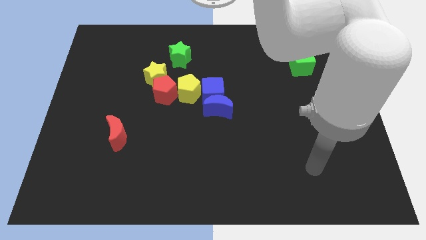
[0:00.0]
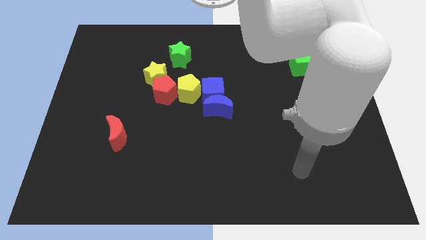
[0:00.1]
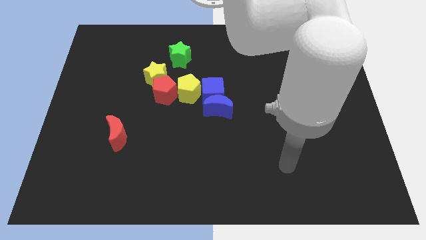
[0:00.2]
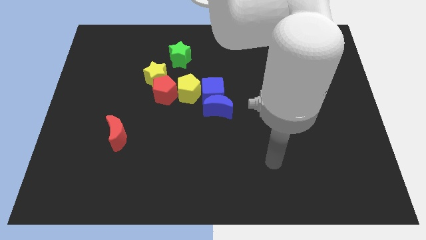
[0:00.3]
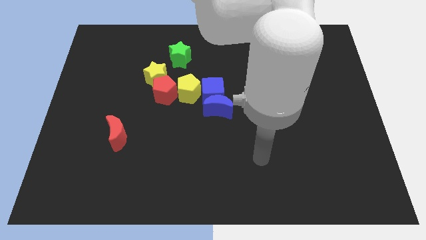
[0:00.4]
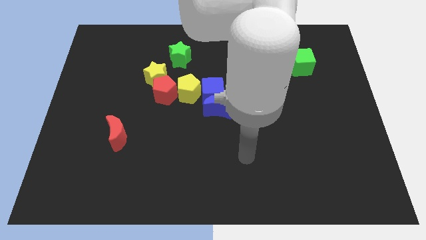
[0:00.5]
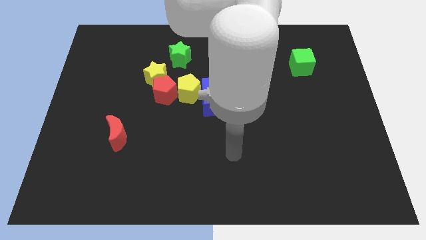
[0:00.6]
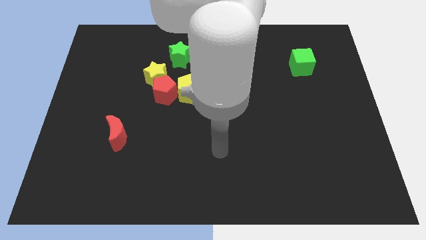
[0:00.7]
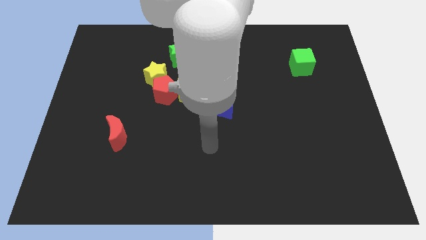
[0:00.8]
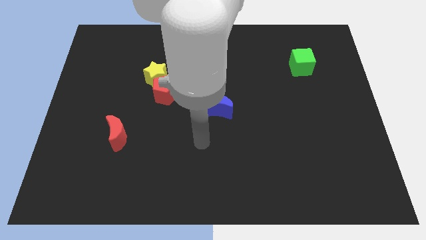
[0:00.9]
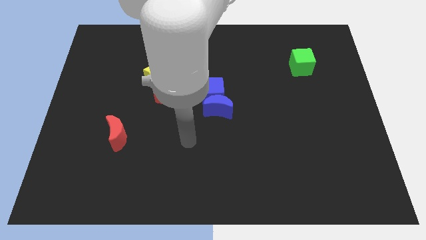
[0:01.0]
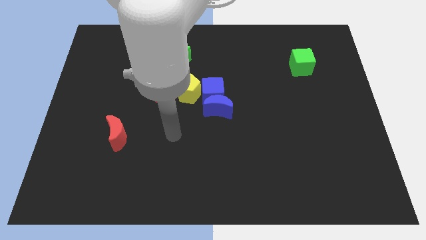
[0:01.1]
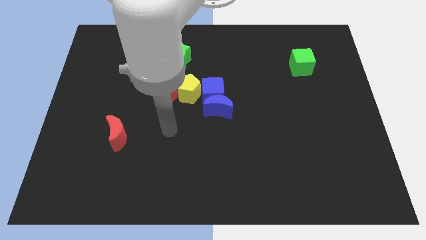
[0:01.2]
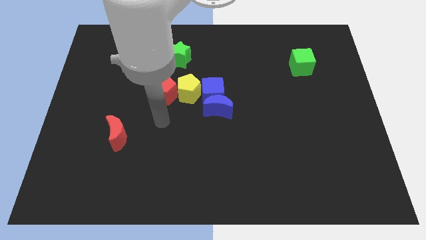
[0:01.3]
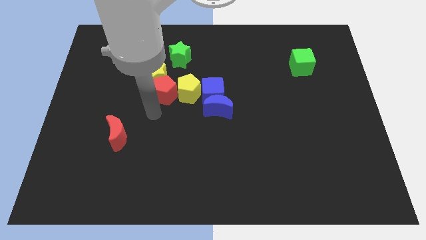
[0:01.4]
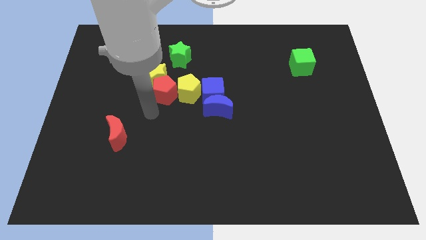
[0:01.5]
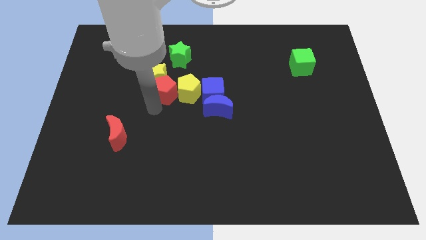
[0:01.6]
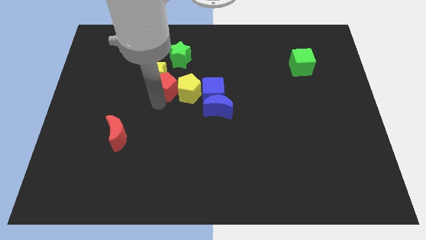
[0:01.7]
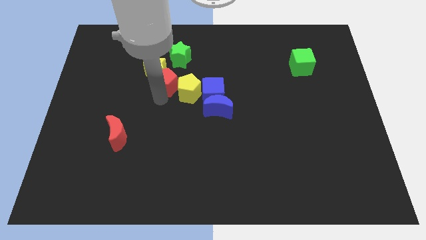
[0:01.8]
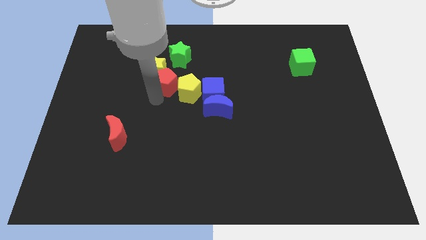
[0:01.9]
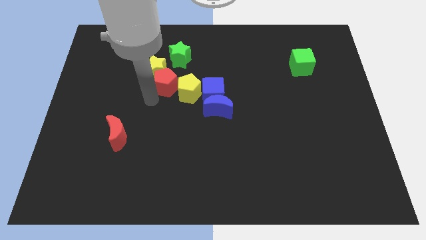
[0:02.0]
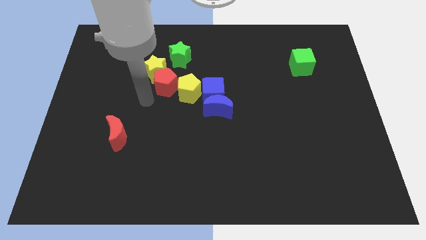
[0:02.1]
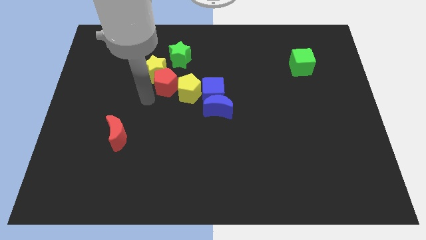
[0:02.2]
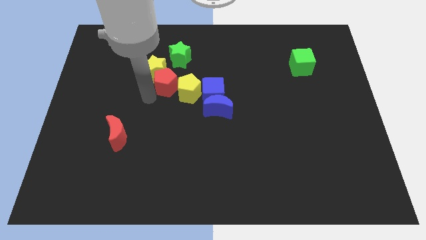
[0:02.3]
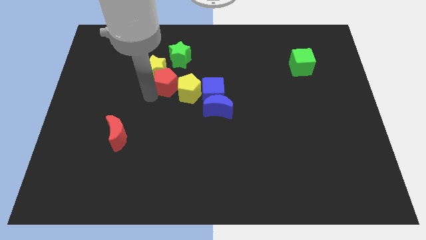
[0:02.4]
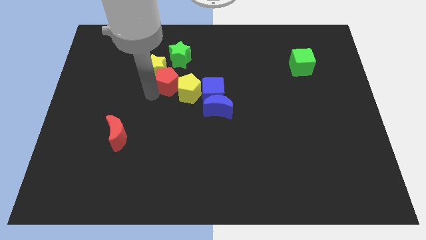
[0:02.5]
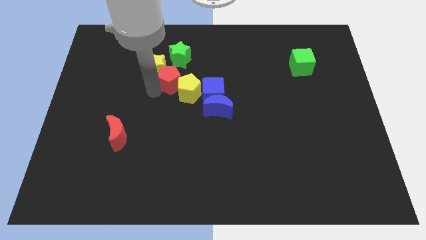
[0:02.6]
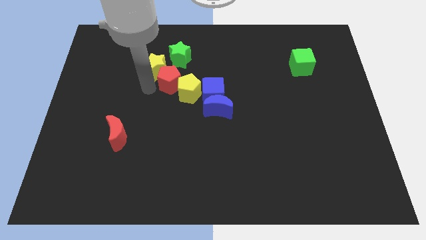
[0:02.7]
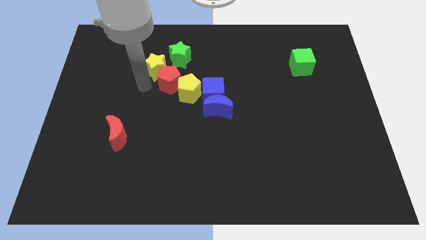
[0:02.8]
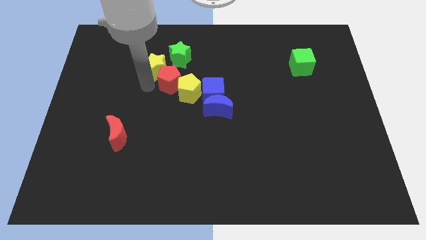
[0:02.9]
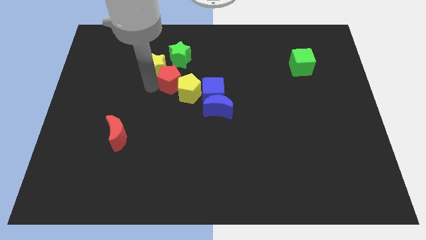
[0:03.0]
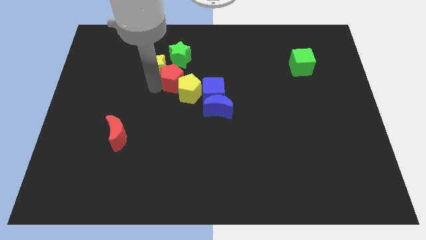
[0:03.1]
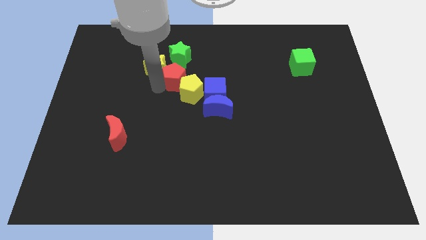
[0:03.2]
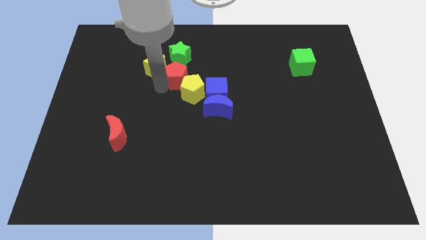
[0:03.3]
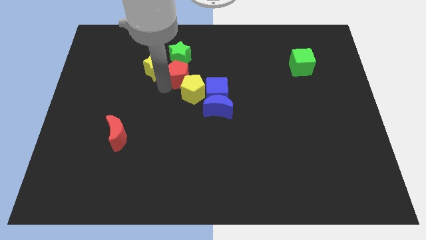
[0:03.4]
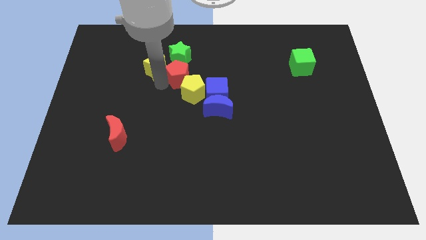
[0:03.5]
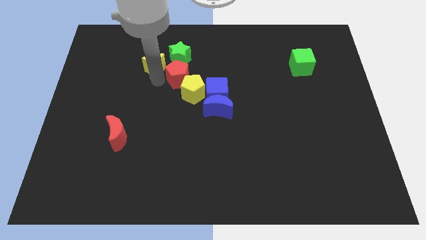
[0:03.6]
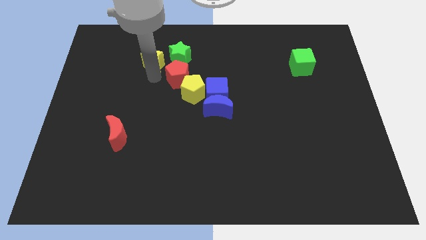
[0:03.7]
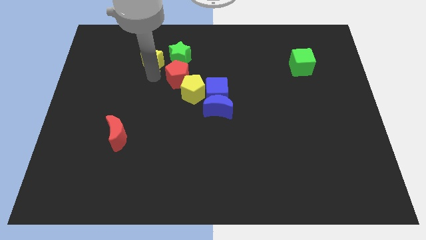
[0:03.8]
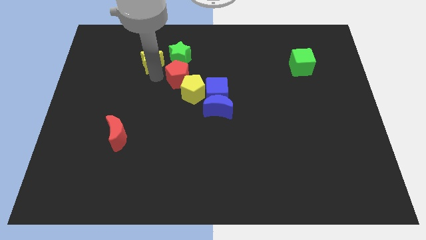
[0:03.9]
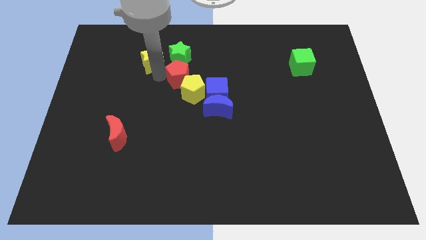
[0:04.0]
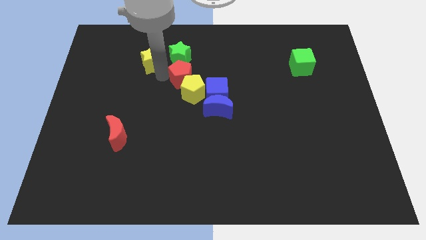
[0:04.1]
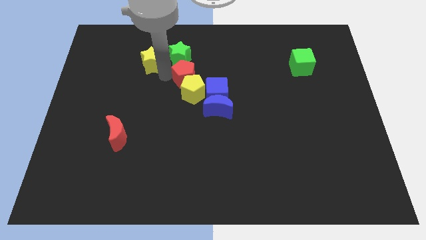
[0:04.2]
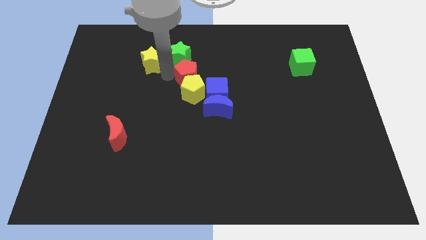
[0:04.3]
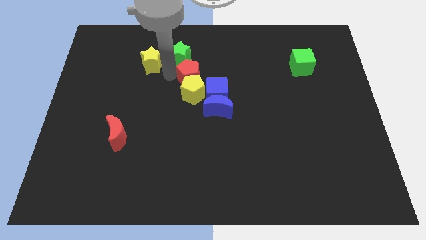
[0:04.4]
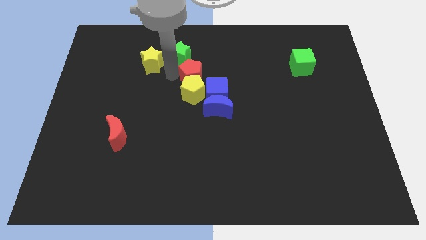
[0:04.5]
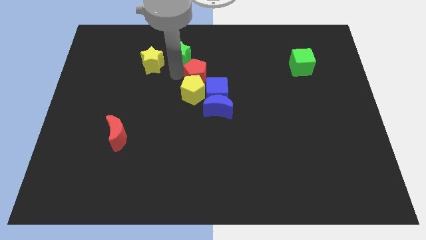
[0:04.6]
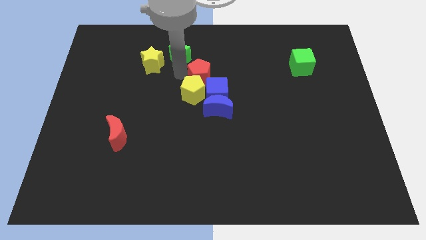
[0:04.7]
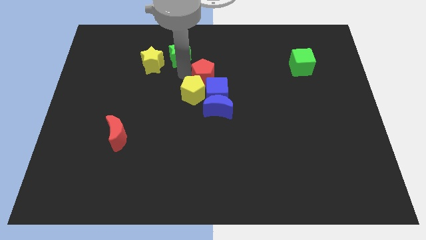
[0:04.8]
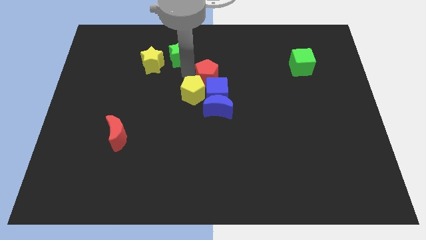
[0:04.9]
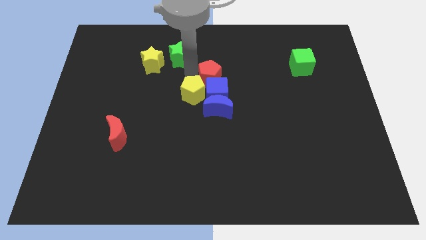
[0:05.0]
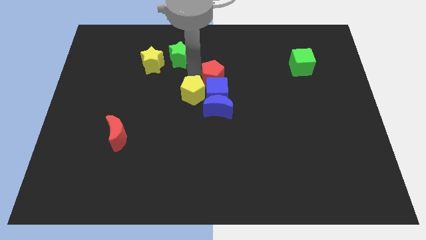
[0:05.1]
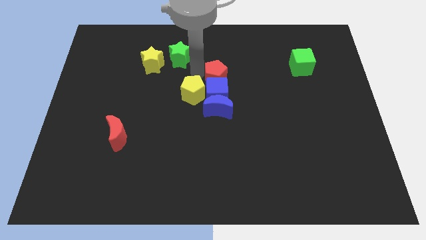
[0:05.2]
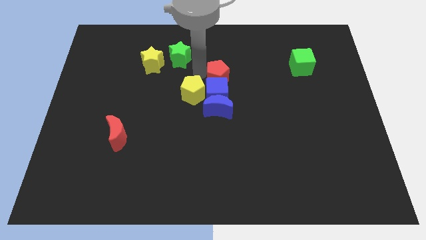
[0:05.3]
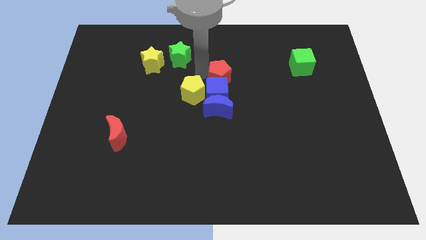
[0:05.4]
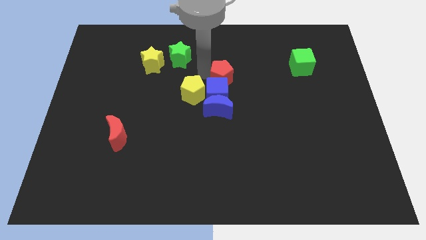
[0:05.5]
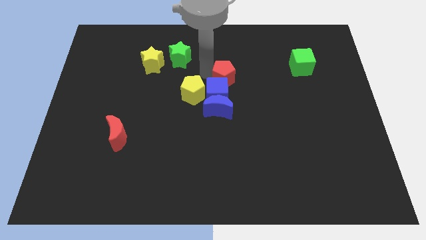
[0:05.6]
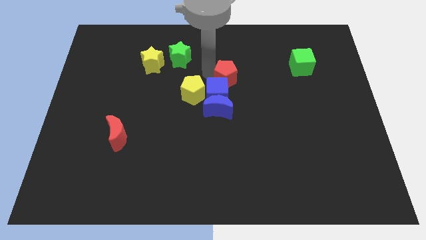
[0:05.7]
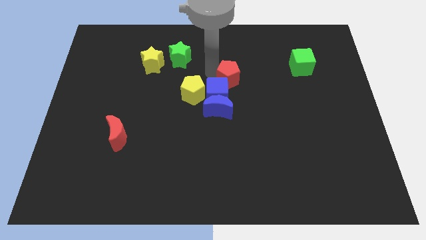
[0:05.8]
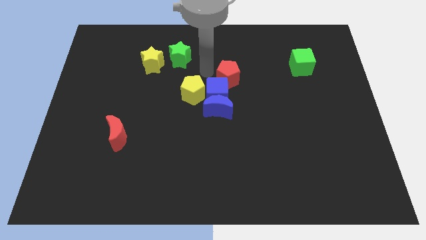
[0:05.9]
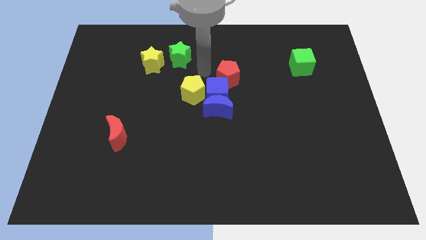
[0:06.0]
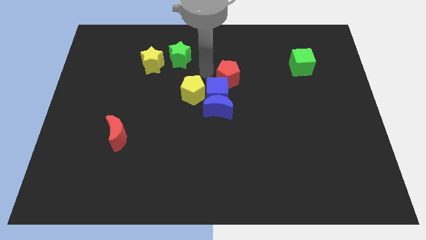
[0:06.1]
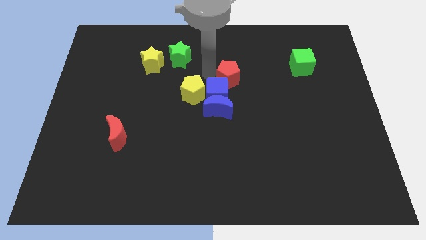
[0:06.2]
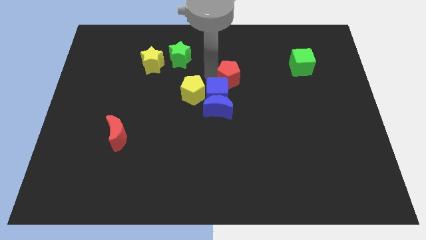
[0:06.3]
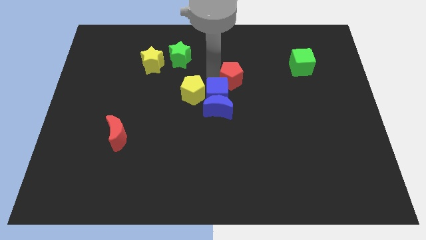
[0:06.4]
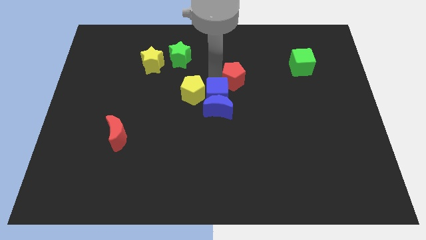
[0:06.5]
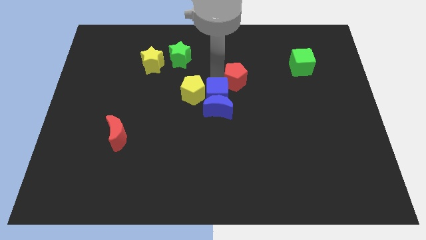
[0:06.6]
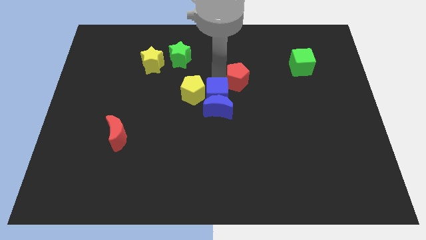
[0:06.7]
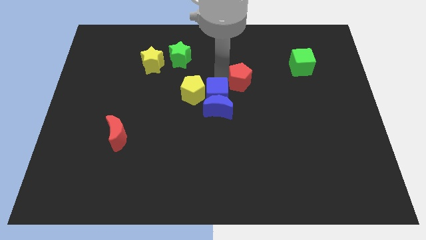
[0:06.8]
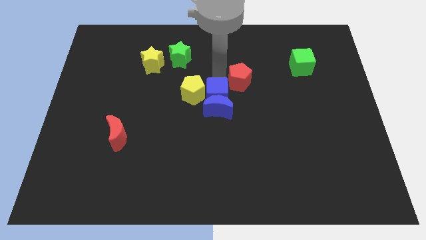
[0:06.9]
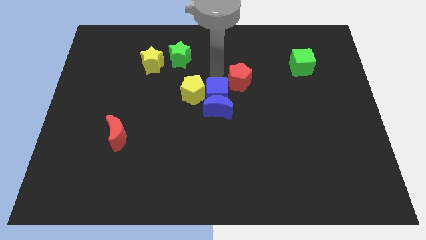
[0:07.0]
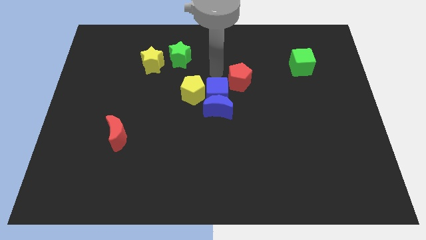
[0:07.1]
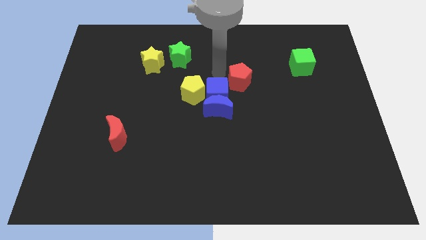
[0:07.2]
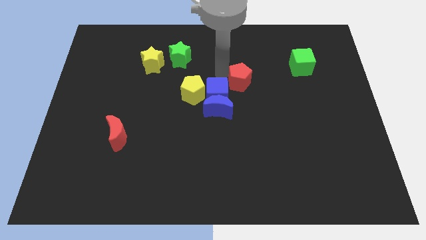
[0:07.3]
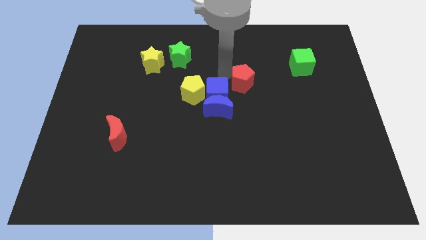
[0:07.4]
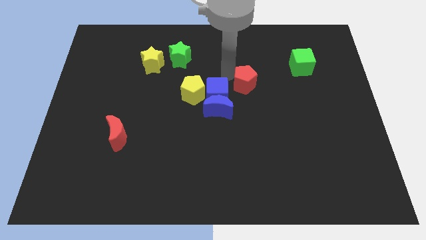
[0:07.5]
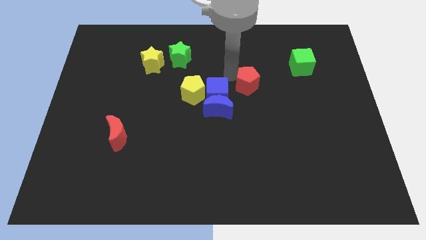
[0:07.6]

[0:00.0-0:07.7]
move the red pentagon right

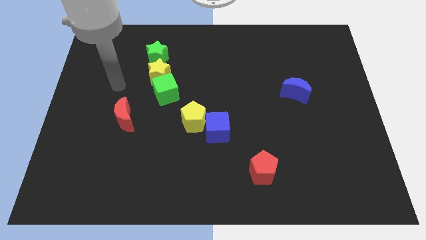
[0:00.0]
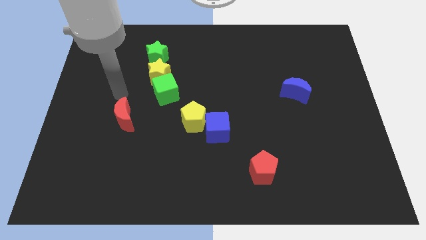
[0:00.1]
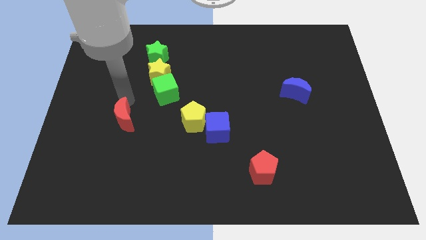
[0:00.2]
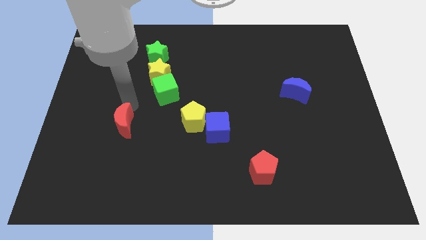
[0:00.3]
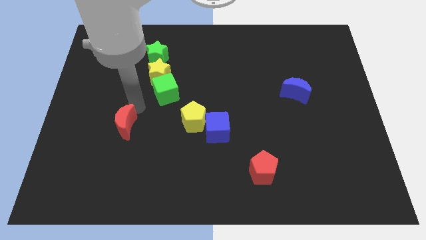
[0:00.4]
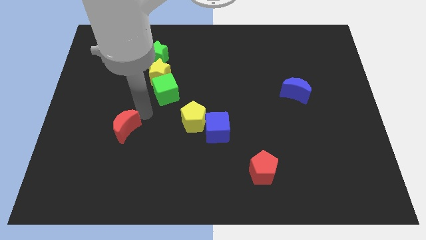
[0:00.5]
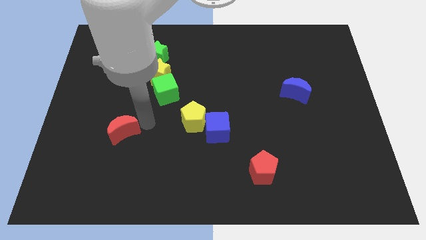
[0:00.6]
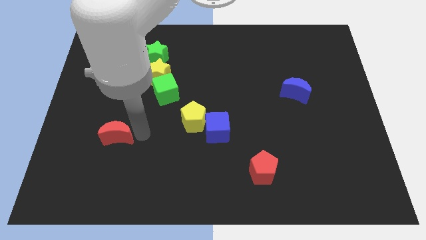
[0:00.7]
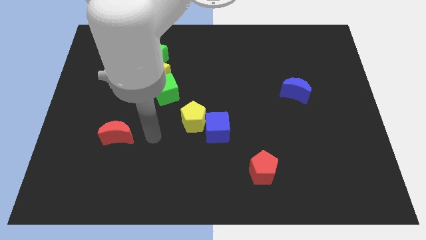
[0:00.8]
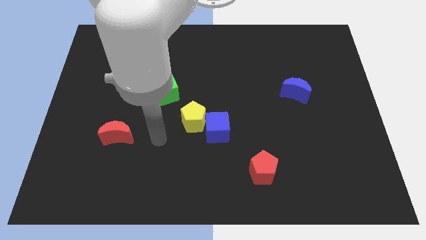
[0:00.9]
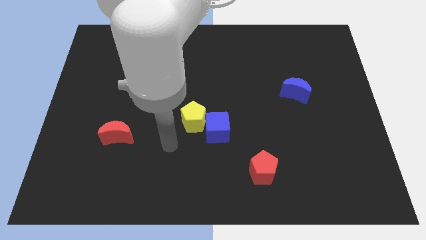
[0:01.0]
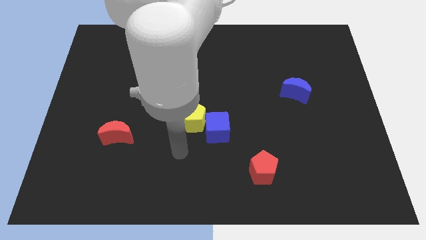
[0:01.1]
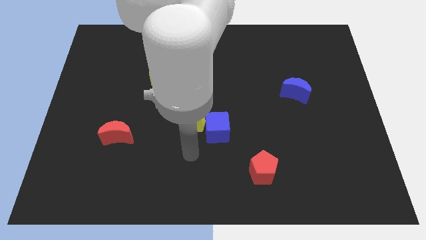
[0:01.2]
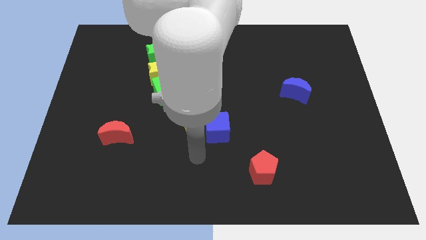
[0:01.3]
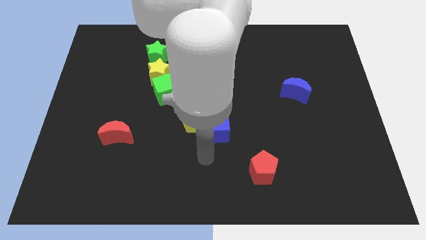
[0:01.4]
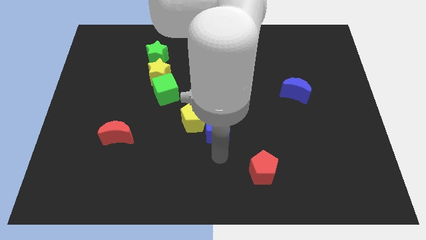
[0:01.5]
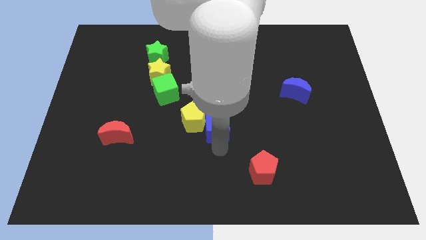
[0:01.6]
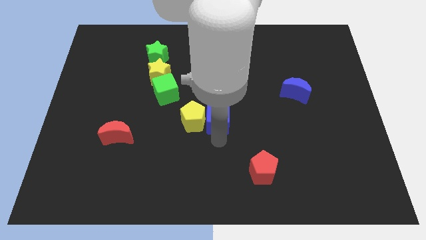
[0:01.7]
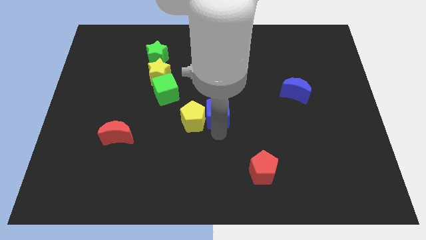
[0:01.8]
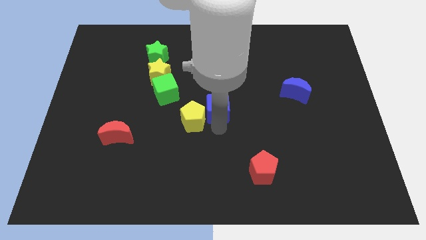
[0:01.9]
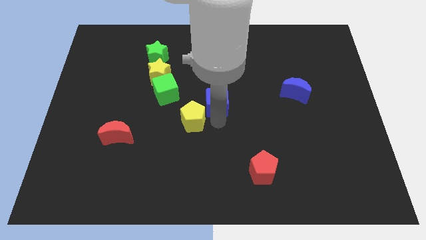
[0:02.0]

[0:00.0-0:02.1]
slightly move the blue cube upwards
